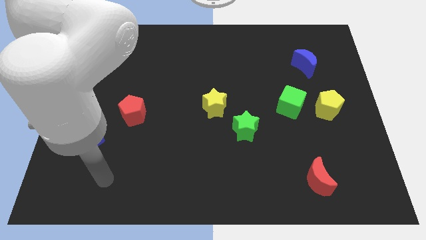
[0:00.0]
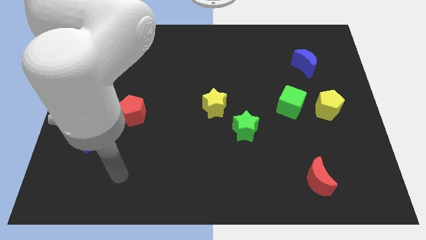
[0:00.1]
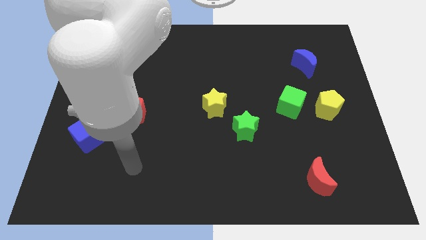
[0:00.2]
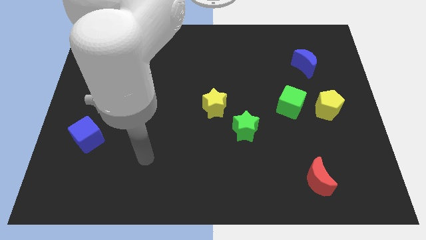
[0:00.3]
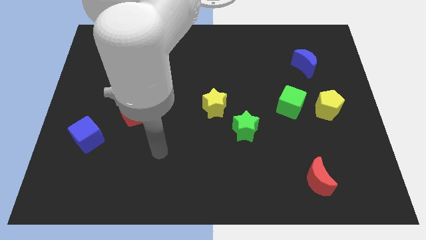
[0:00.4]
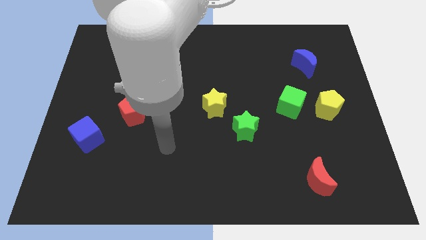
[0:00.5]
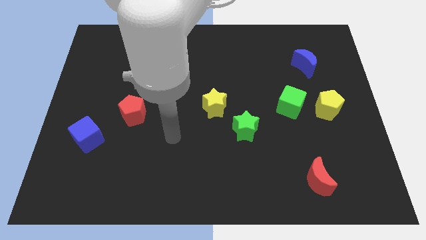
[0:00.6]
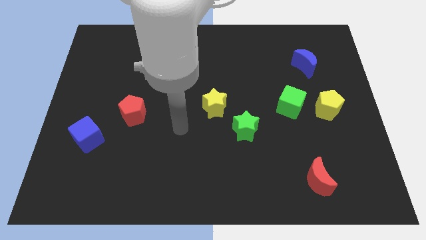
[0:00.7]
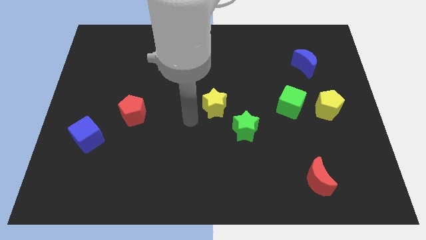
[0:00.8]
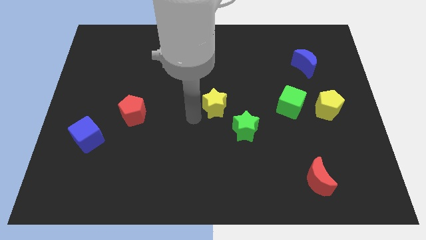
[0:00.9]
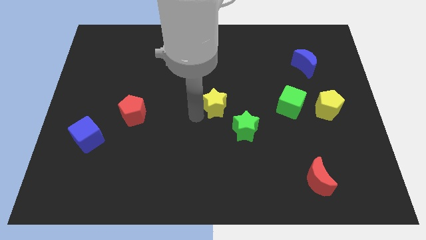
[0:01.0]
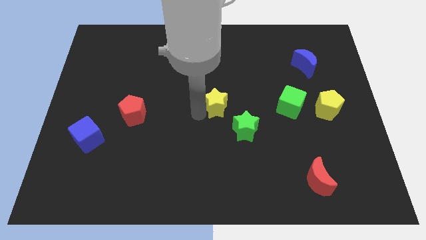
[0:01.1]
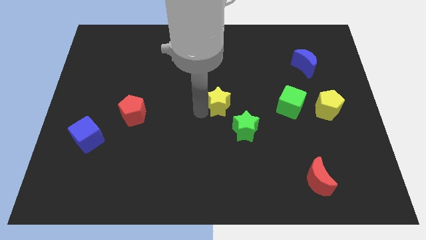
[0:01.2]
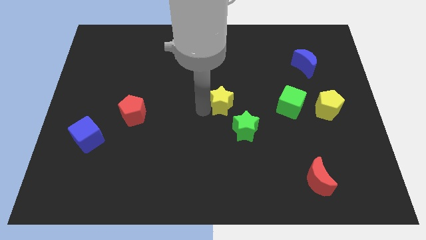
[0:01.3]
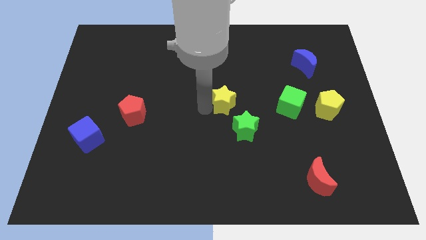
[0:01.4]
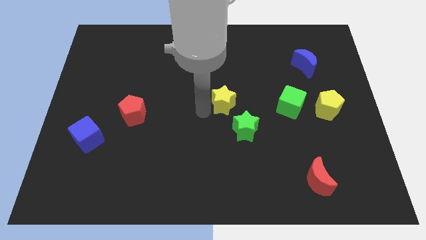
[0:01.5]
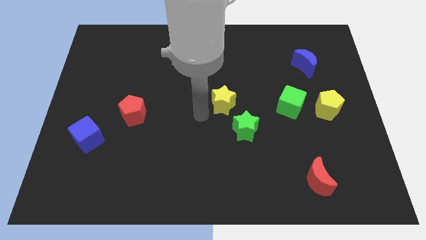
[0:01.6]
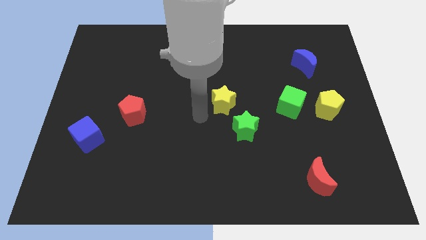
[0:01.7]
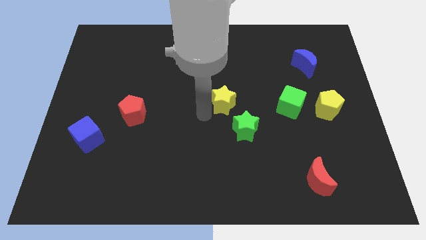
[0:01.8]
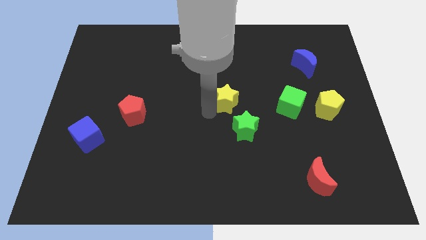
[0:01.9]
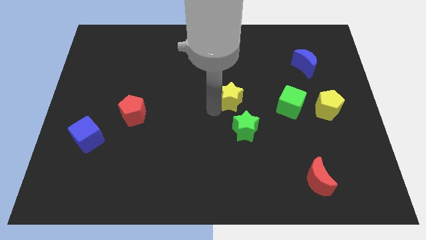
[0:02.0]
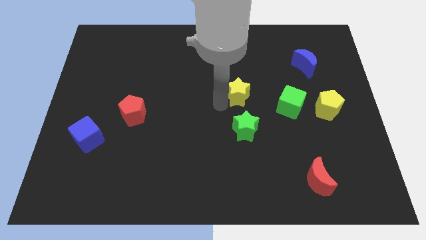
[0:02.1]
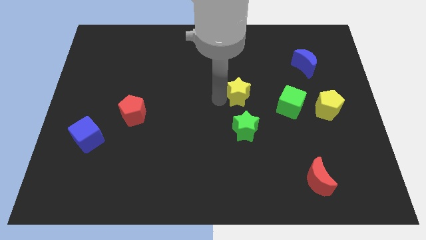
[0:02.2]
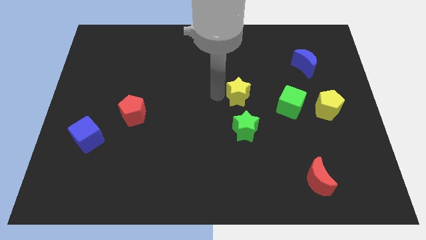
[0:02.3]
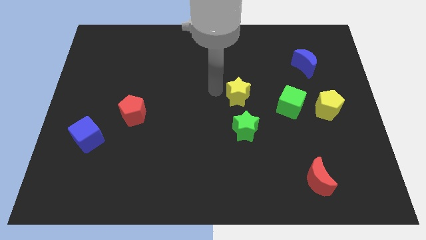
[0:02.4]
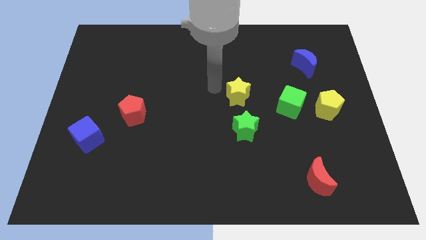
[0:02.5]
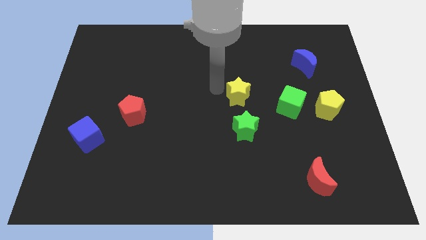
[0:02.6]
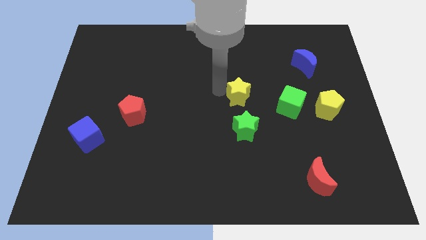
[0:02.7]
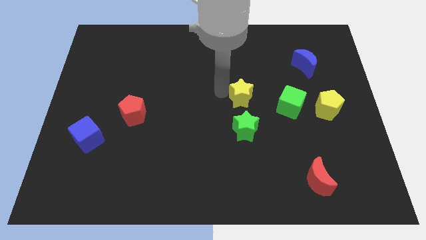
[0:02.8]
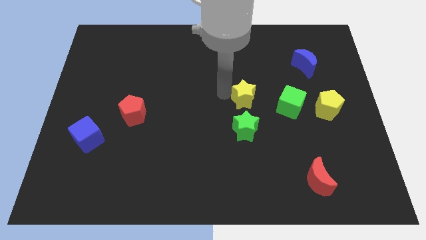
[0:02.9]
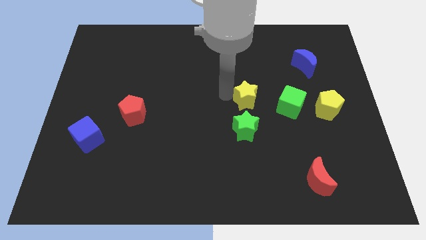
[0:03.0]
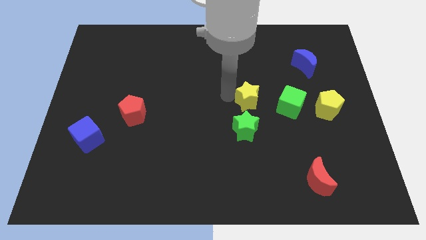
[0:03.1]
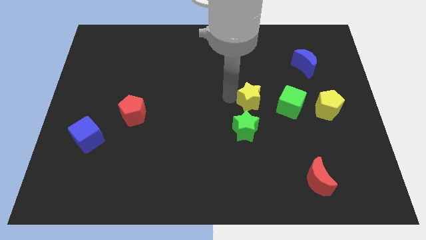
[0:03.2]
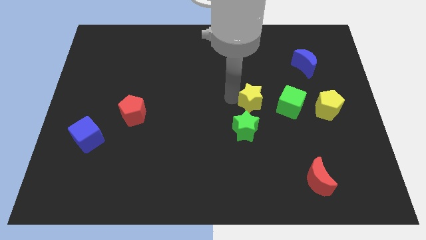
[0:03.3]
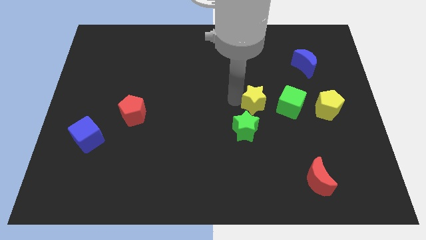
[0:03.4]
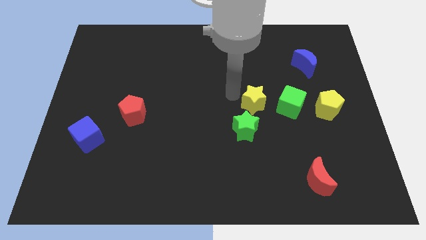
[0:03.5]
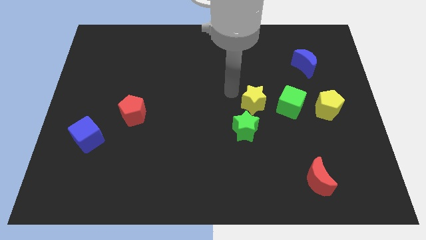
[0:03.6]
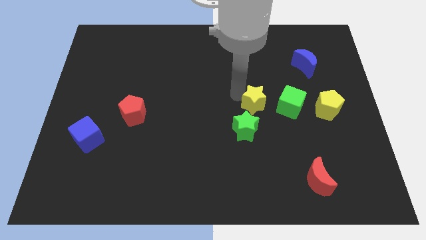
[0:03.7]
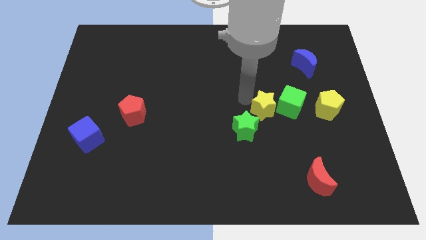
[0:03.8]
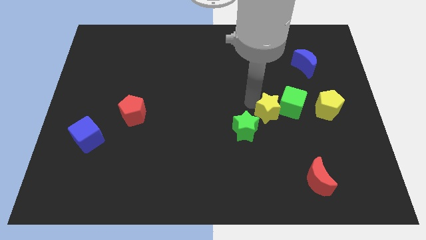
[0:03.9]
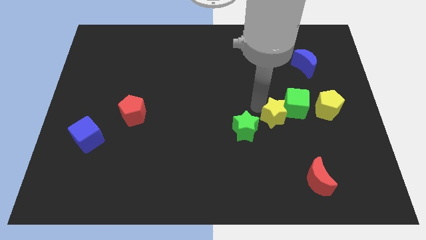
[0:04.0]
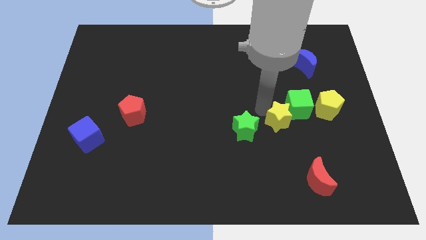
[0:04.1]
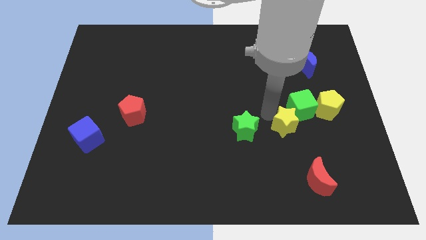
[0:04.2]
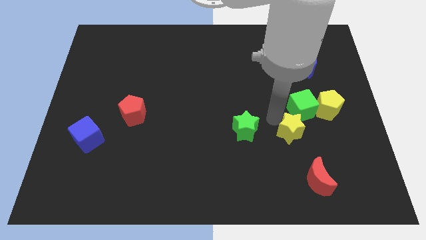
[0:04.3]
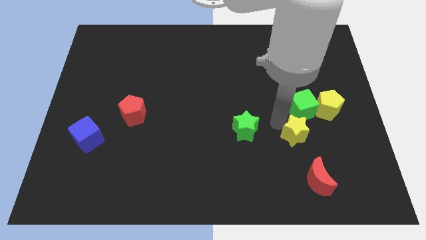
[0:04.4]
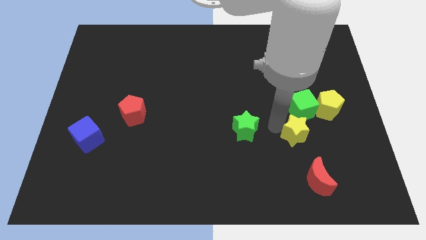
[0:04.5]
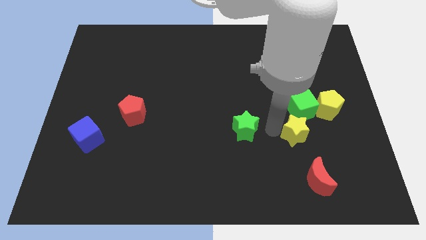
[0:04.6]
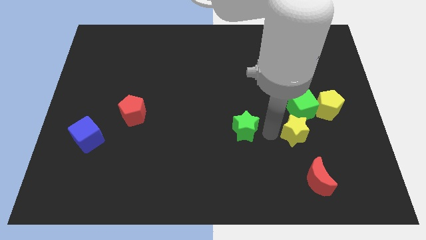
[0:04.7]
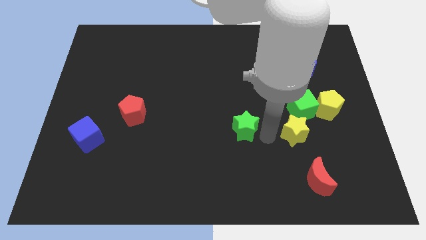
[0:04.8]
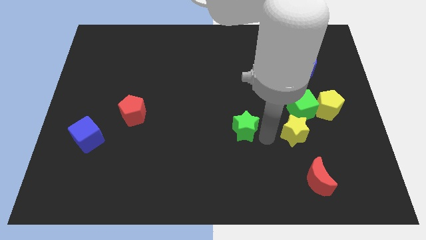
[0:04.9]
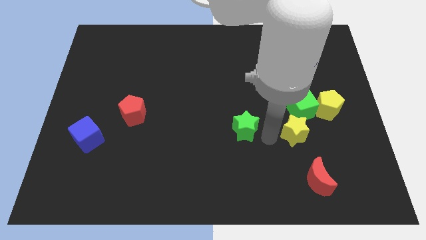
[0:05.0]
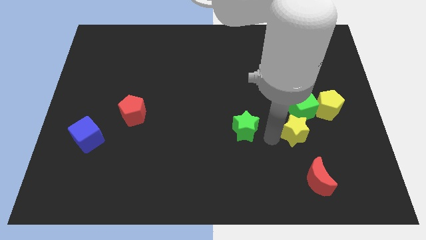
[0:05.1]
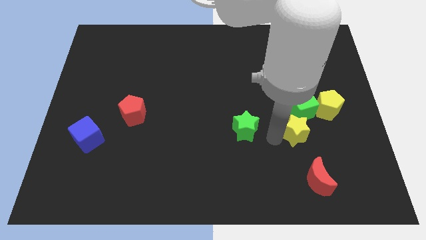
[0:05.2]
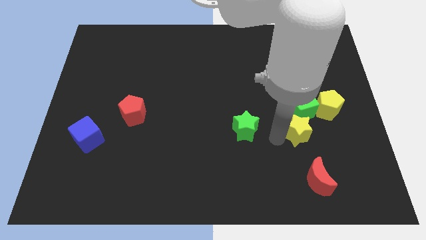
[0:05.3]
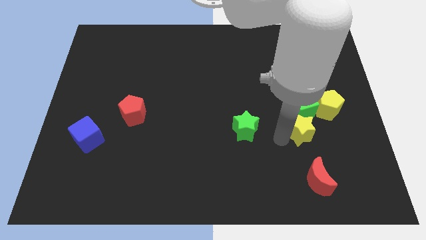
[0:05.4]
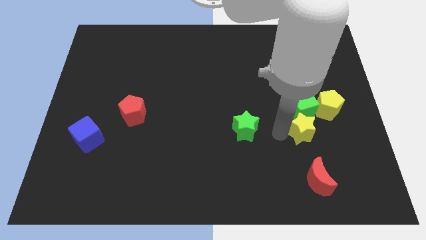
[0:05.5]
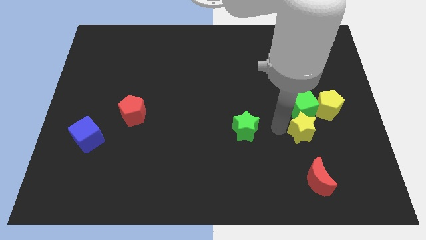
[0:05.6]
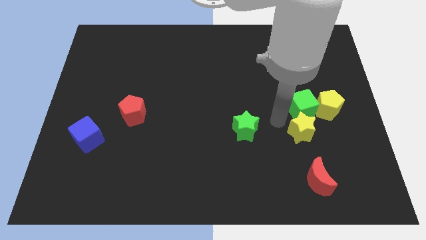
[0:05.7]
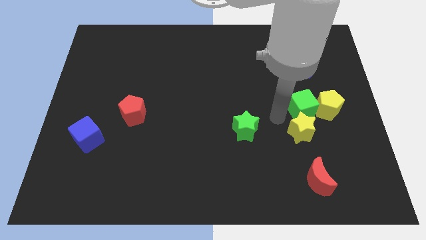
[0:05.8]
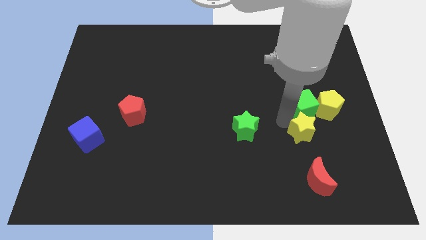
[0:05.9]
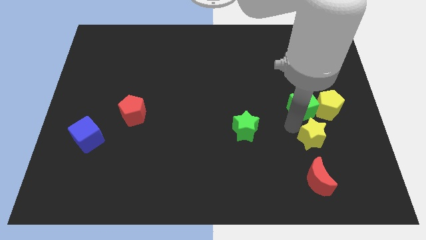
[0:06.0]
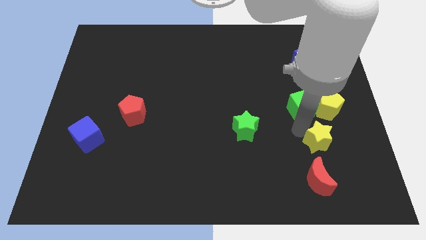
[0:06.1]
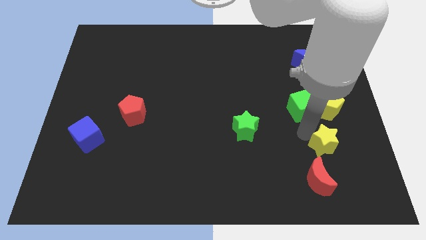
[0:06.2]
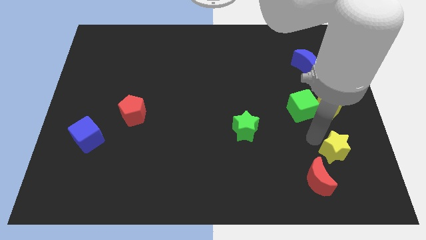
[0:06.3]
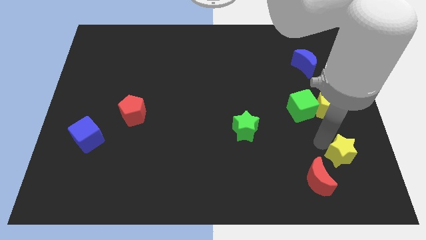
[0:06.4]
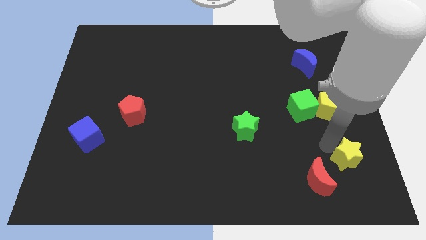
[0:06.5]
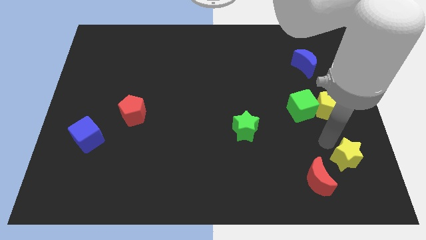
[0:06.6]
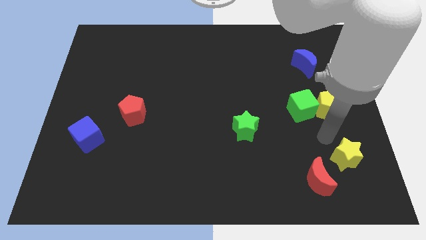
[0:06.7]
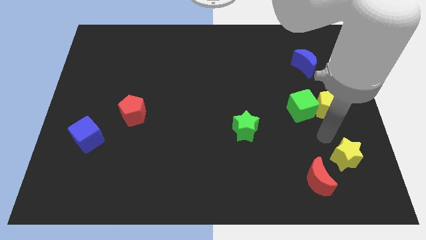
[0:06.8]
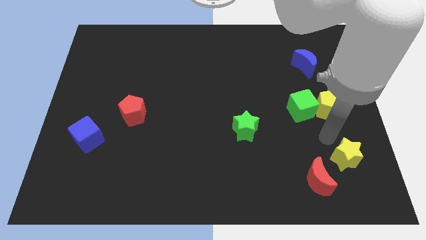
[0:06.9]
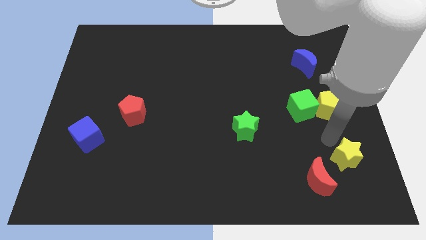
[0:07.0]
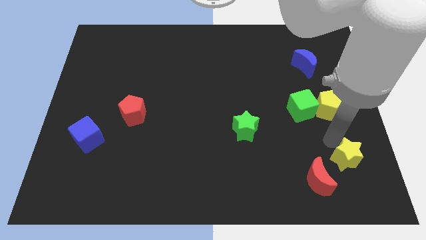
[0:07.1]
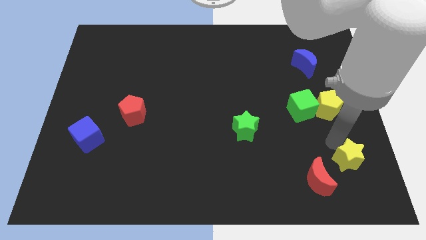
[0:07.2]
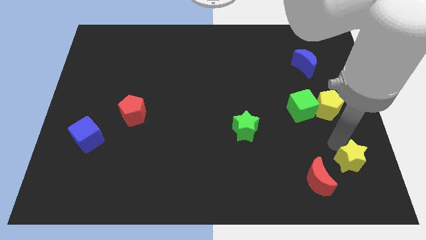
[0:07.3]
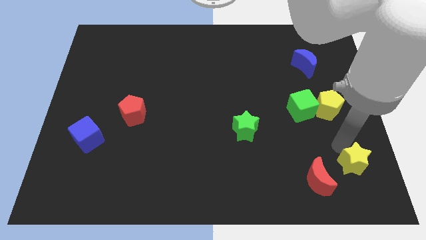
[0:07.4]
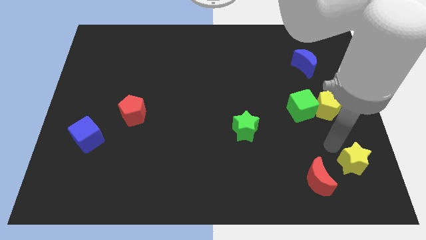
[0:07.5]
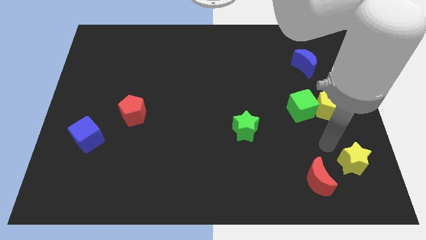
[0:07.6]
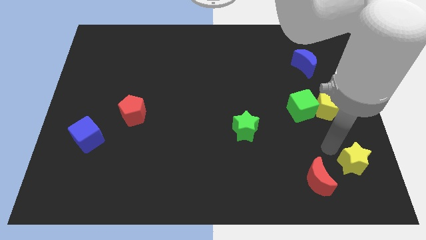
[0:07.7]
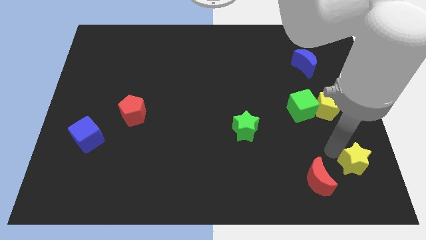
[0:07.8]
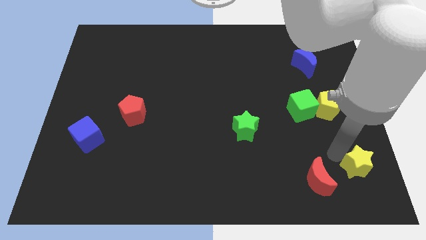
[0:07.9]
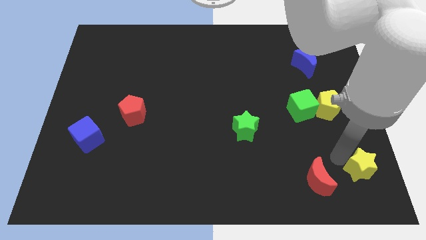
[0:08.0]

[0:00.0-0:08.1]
slide the yellow star to the bottom right corner
